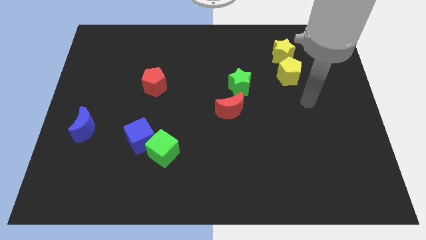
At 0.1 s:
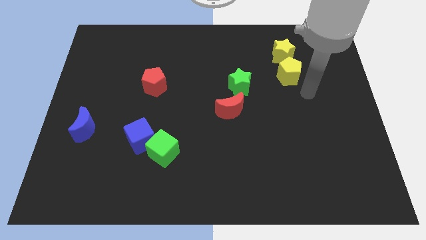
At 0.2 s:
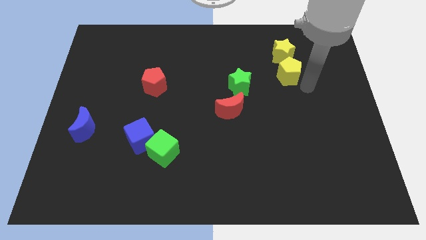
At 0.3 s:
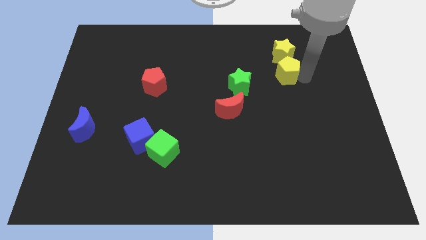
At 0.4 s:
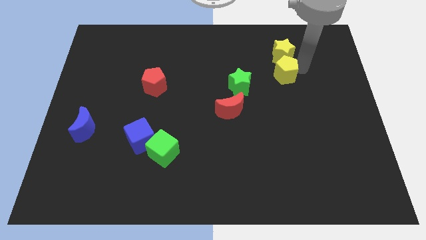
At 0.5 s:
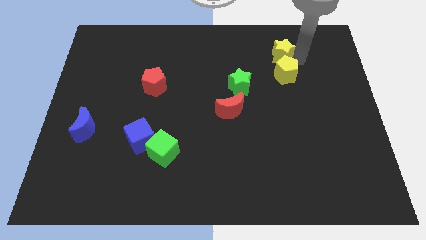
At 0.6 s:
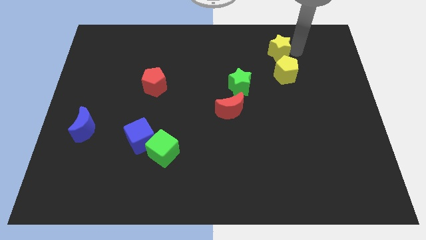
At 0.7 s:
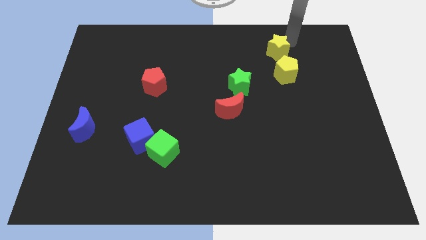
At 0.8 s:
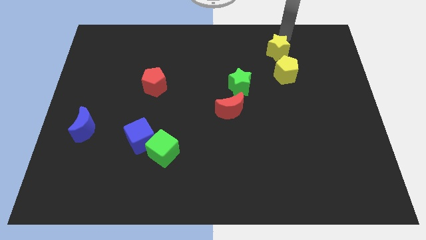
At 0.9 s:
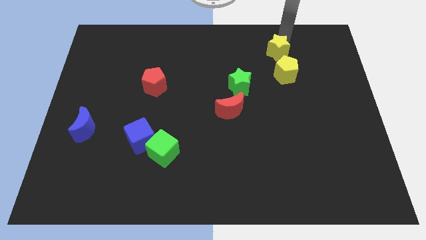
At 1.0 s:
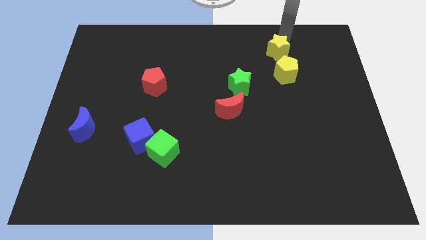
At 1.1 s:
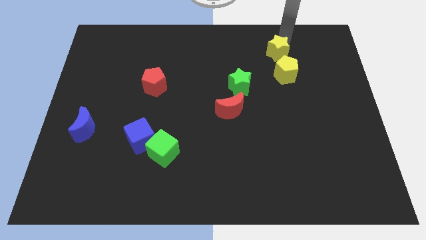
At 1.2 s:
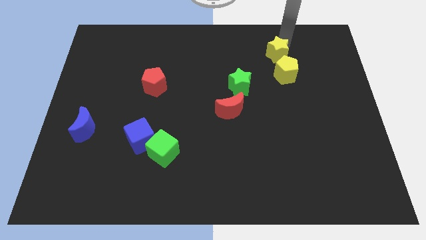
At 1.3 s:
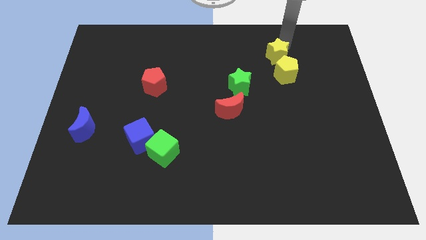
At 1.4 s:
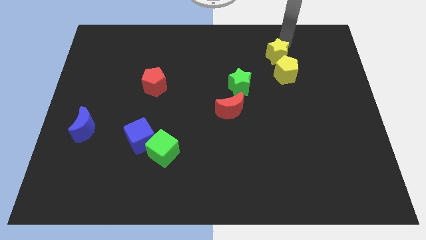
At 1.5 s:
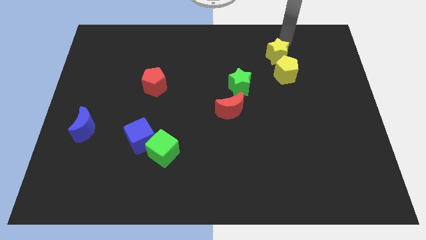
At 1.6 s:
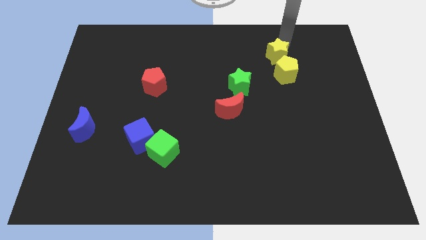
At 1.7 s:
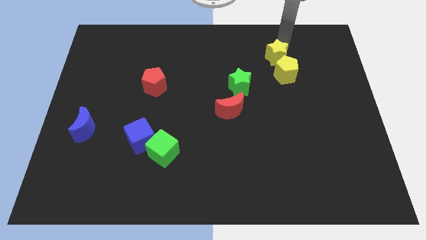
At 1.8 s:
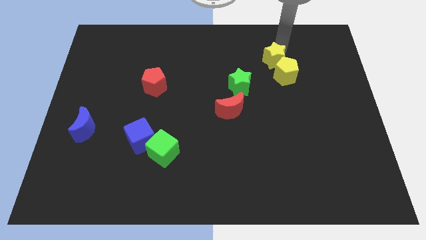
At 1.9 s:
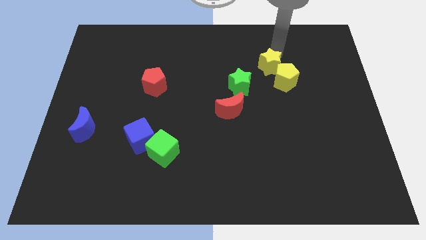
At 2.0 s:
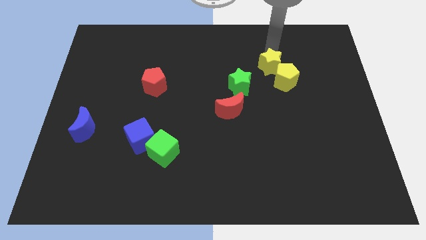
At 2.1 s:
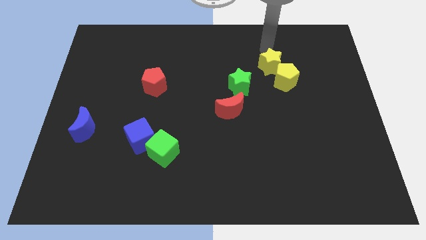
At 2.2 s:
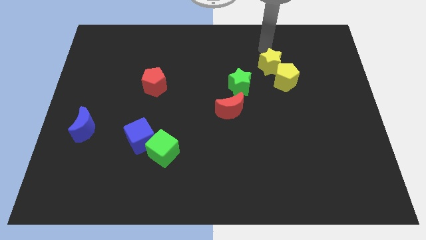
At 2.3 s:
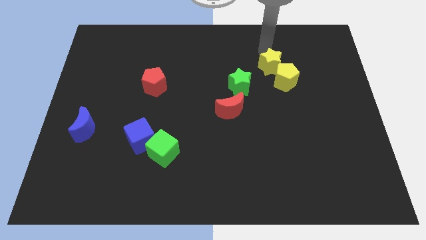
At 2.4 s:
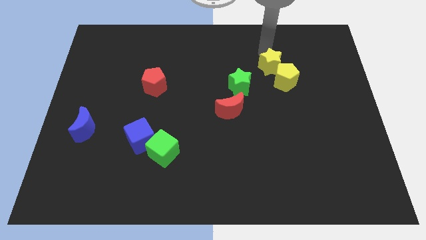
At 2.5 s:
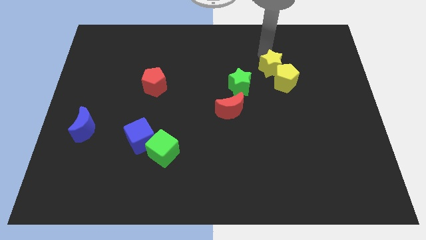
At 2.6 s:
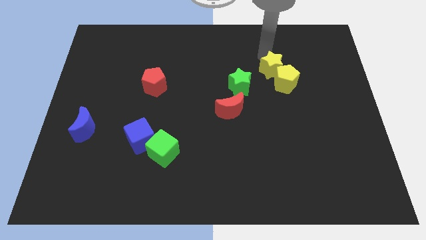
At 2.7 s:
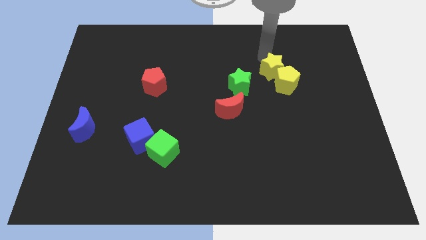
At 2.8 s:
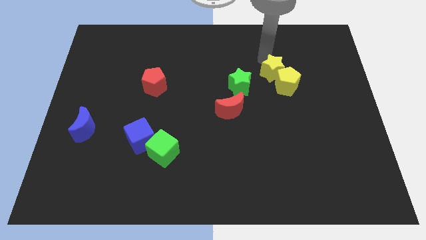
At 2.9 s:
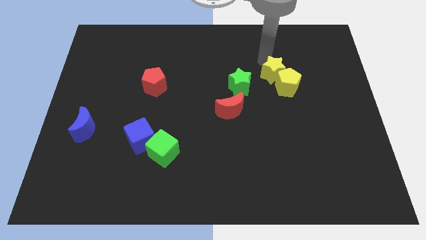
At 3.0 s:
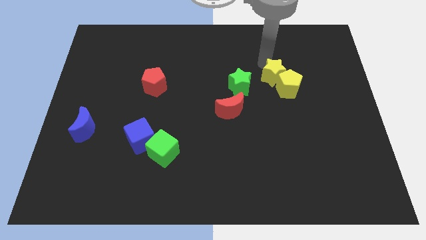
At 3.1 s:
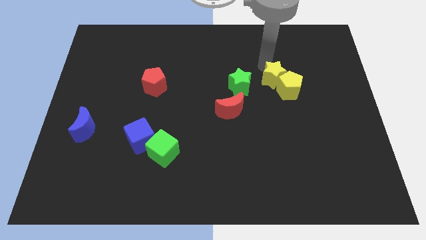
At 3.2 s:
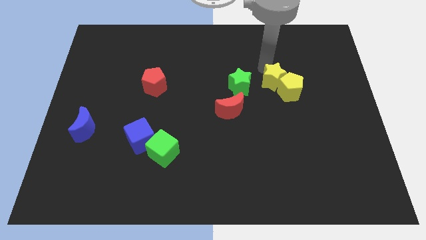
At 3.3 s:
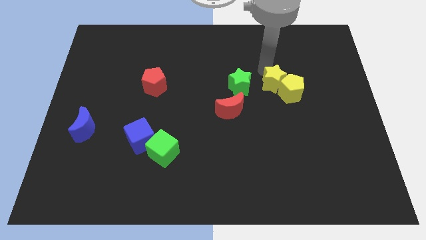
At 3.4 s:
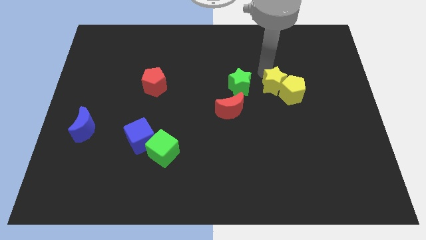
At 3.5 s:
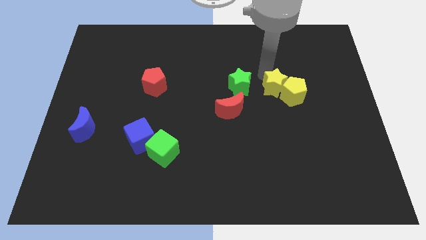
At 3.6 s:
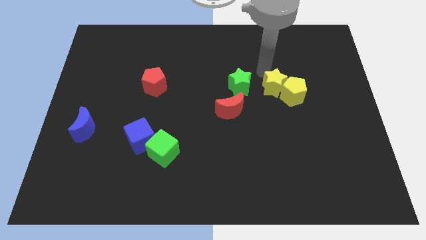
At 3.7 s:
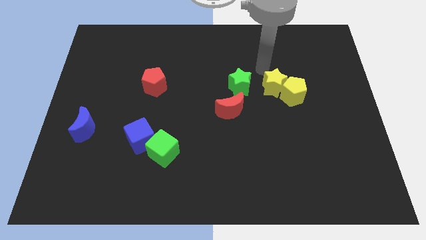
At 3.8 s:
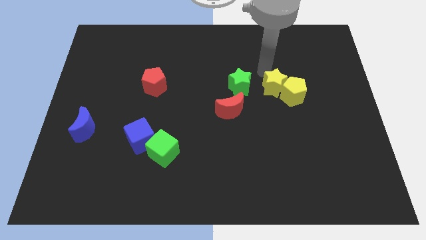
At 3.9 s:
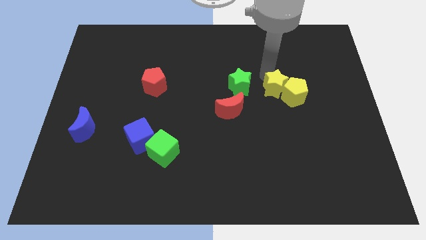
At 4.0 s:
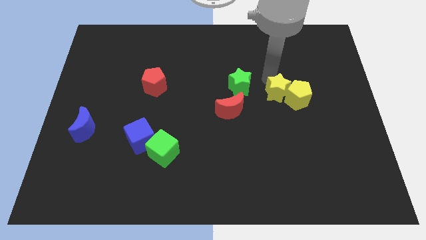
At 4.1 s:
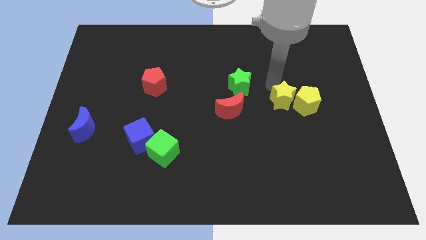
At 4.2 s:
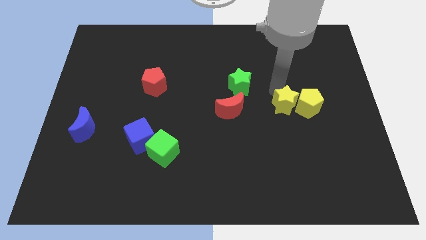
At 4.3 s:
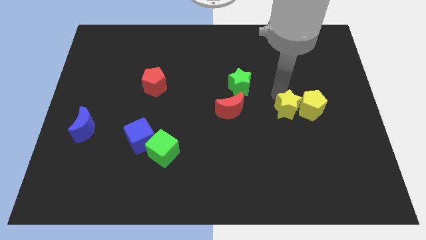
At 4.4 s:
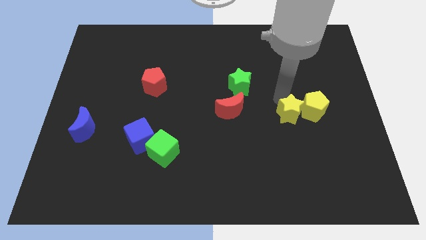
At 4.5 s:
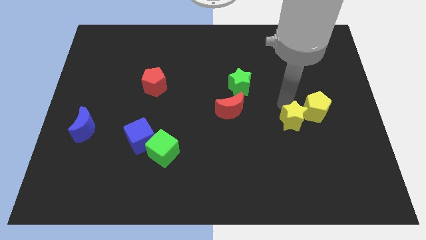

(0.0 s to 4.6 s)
slide the yellow star down

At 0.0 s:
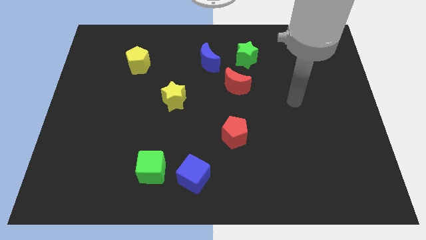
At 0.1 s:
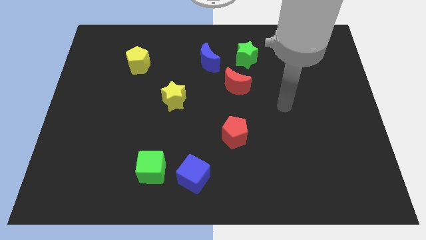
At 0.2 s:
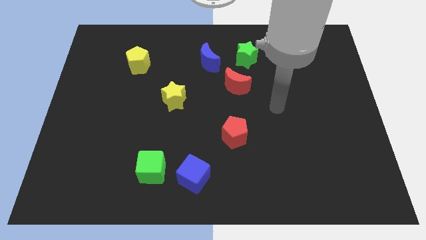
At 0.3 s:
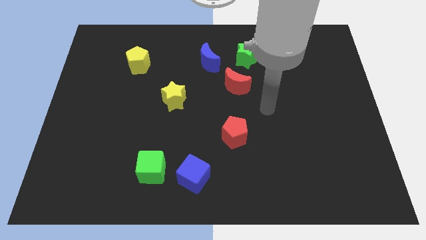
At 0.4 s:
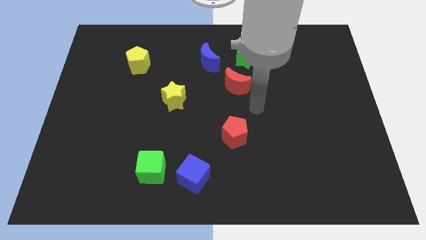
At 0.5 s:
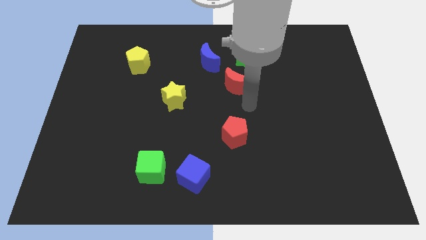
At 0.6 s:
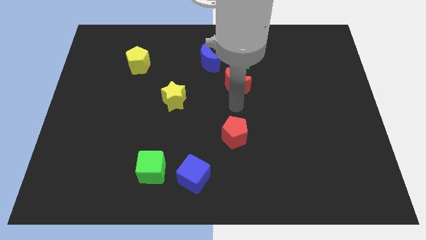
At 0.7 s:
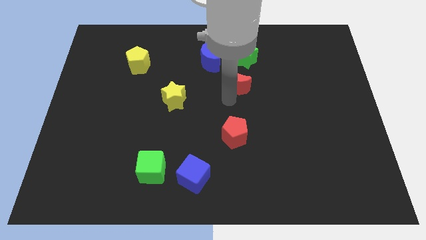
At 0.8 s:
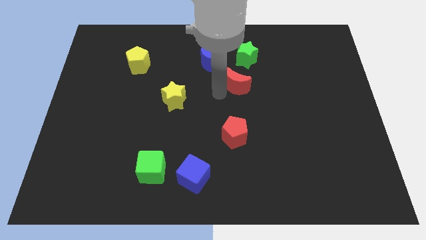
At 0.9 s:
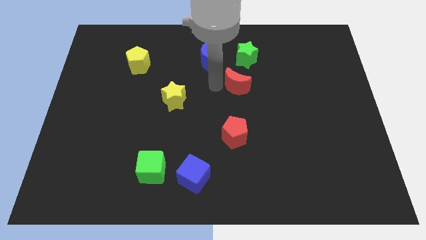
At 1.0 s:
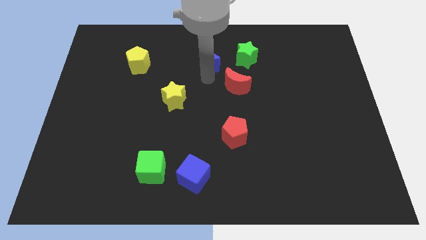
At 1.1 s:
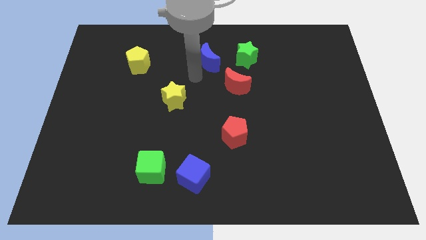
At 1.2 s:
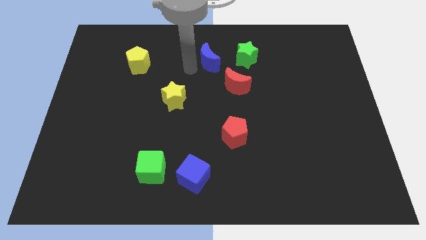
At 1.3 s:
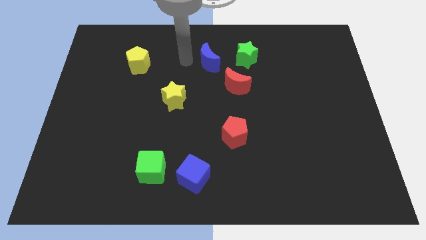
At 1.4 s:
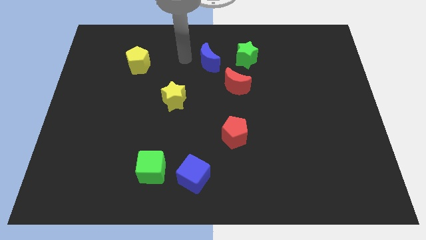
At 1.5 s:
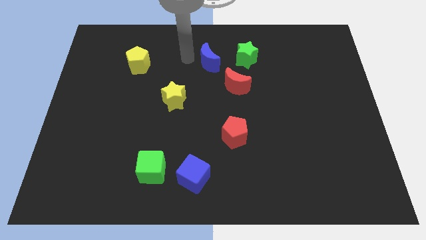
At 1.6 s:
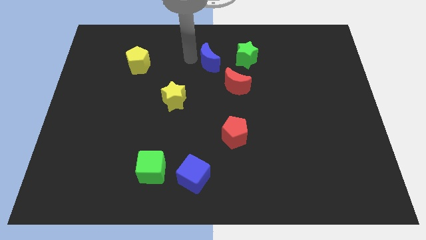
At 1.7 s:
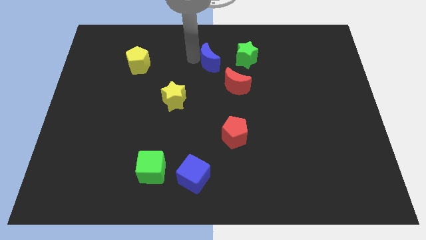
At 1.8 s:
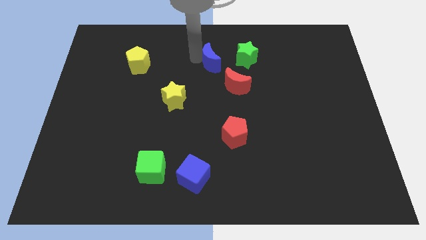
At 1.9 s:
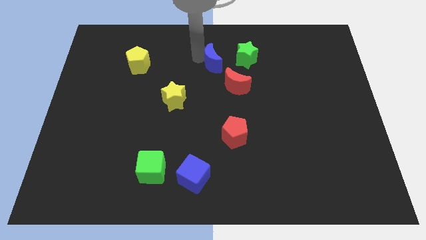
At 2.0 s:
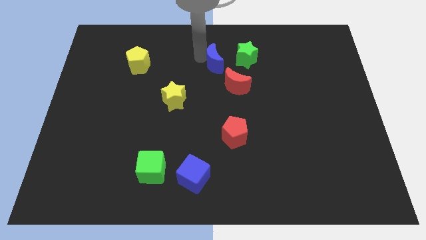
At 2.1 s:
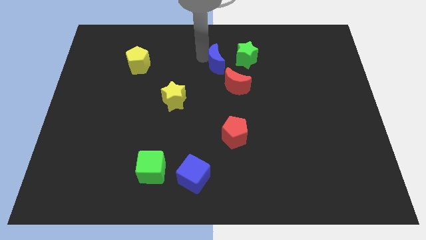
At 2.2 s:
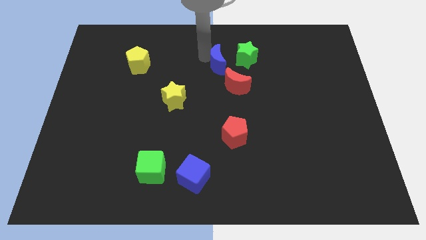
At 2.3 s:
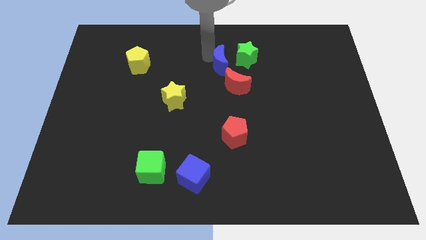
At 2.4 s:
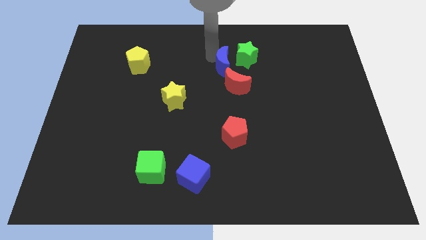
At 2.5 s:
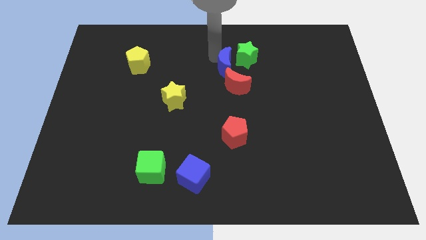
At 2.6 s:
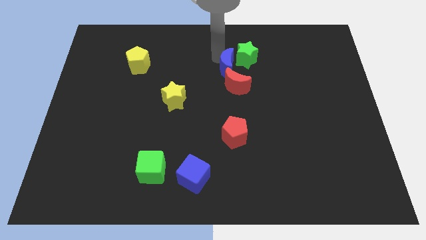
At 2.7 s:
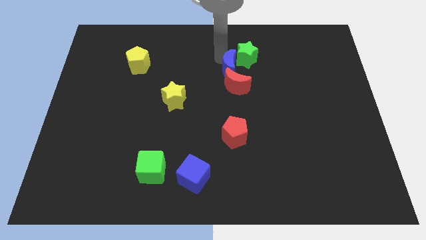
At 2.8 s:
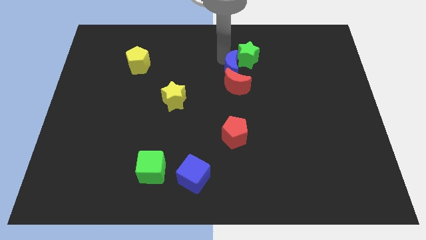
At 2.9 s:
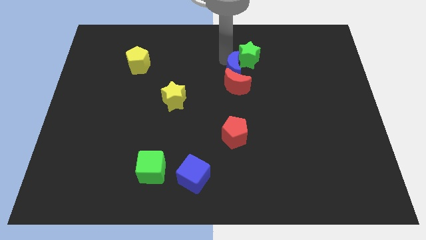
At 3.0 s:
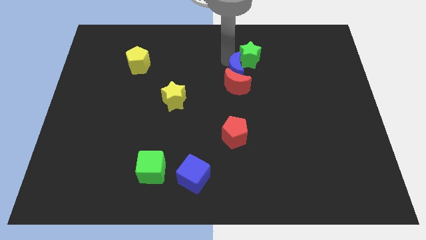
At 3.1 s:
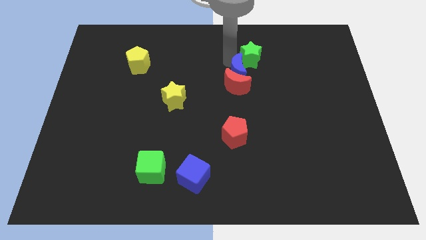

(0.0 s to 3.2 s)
slightly push the blue moon right

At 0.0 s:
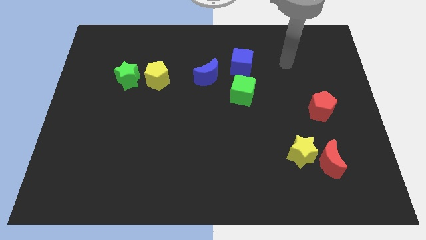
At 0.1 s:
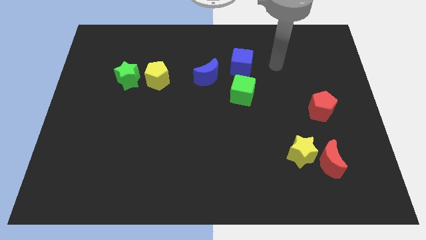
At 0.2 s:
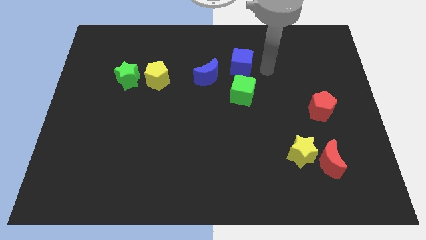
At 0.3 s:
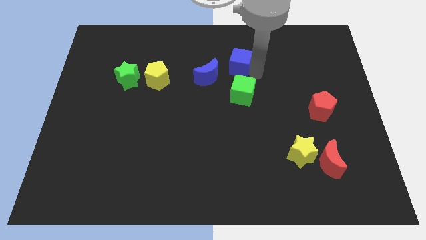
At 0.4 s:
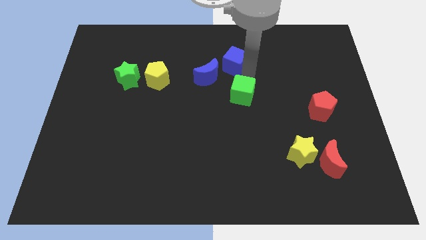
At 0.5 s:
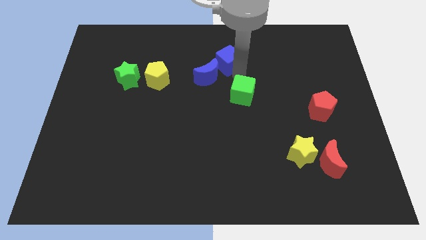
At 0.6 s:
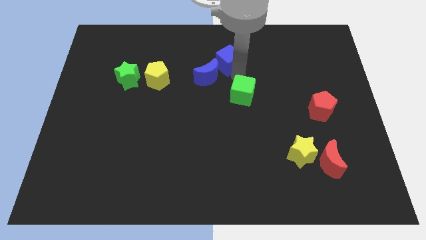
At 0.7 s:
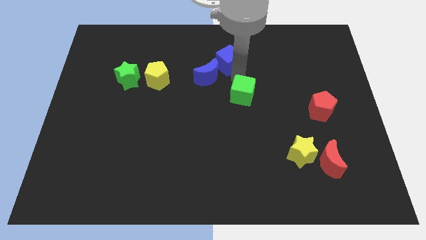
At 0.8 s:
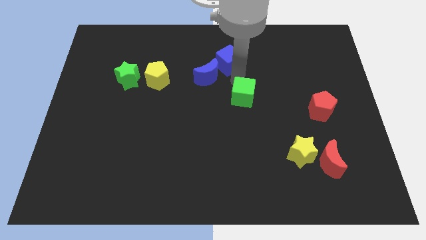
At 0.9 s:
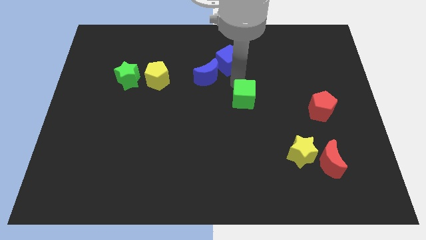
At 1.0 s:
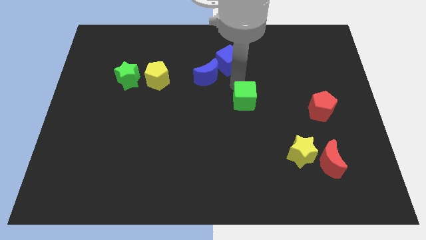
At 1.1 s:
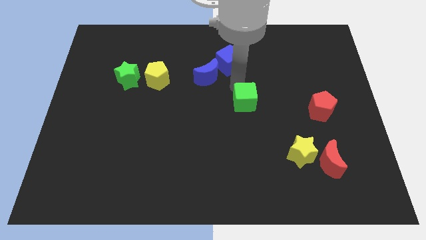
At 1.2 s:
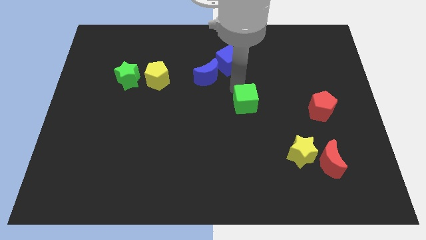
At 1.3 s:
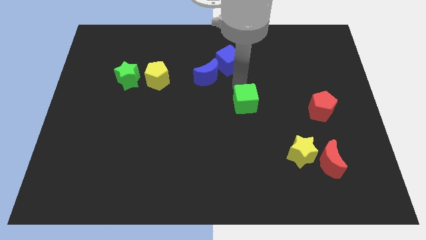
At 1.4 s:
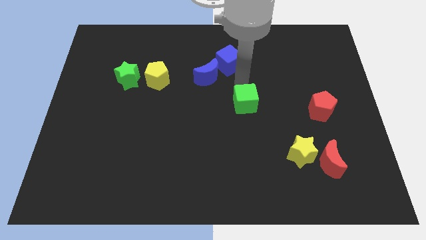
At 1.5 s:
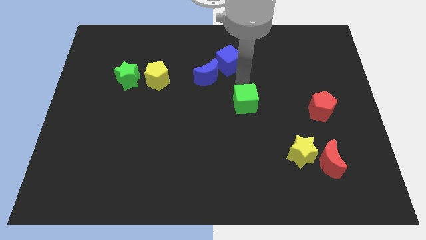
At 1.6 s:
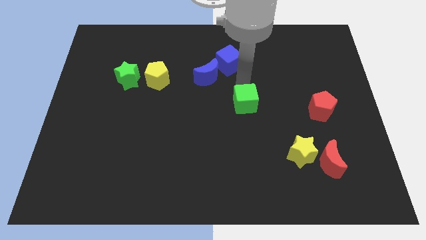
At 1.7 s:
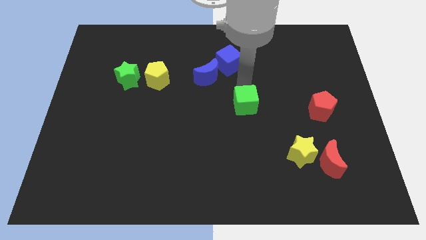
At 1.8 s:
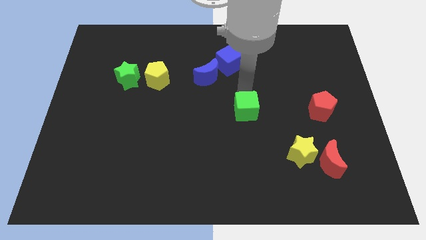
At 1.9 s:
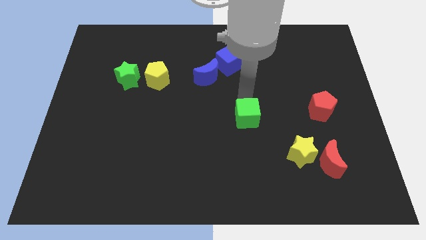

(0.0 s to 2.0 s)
move the green cube a bit downwards
